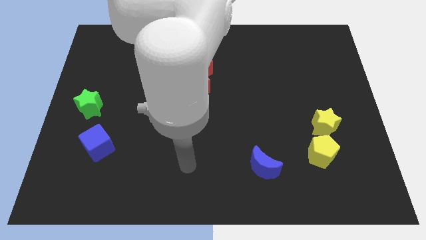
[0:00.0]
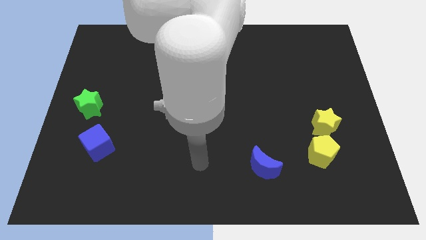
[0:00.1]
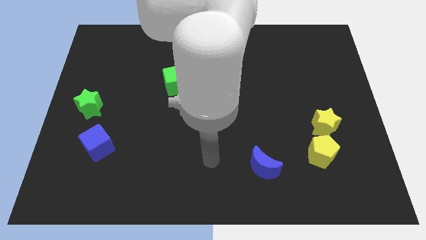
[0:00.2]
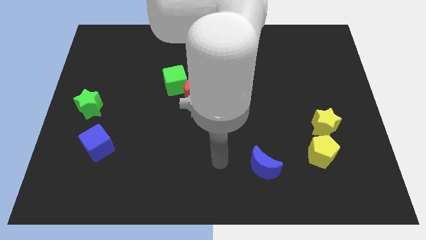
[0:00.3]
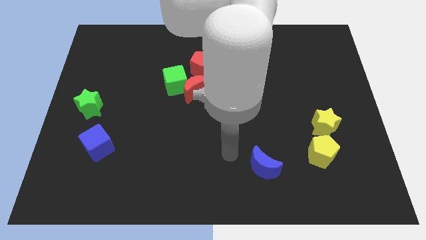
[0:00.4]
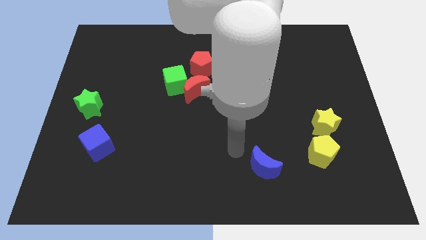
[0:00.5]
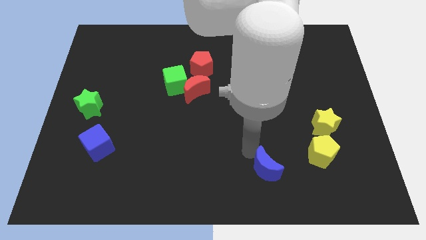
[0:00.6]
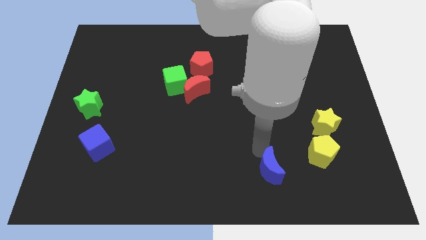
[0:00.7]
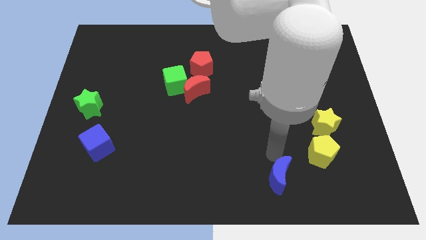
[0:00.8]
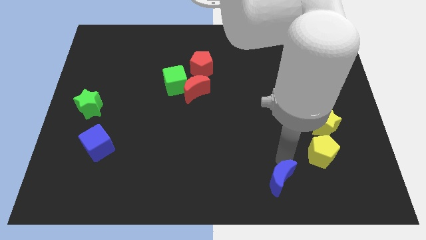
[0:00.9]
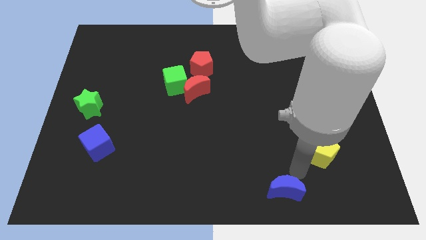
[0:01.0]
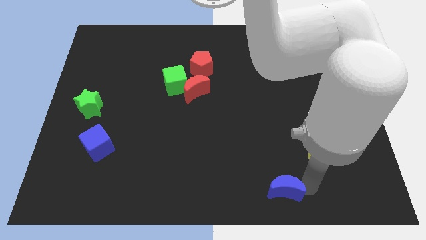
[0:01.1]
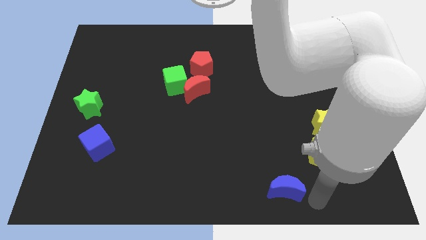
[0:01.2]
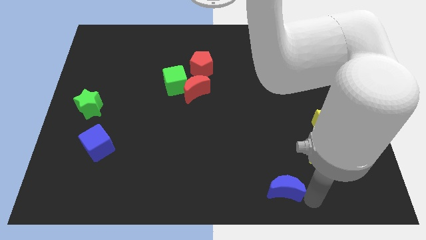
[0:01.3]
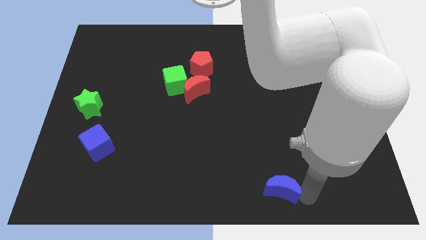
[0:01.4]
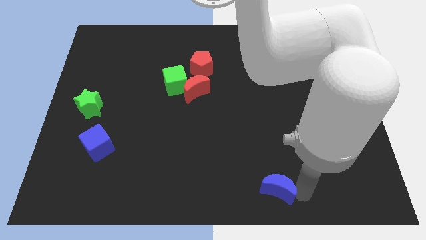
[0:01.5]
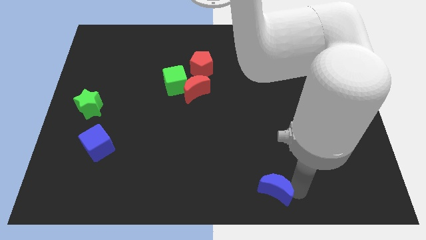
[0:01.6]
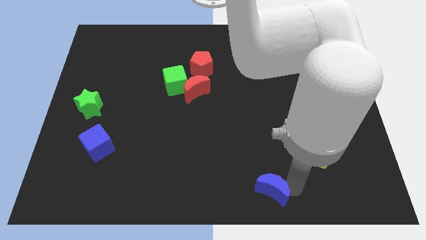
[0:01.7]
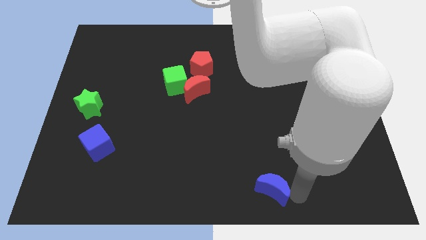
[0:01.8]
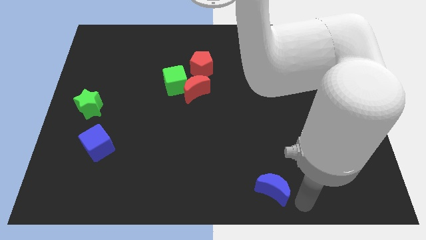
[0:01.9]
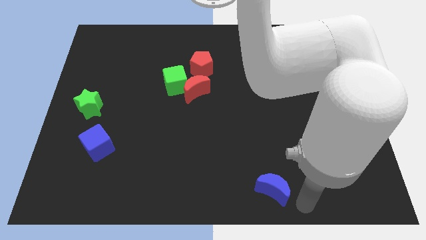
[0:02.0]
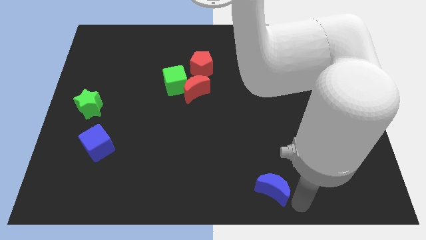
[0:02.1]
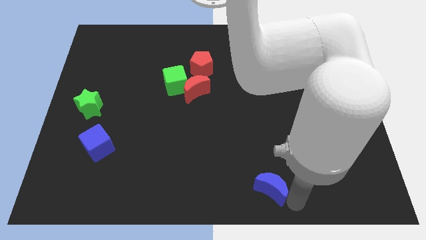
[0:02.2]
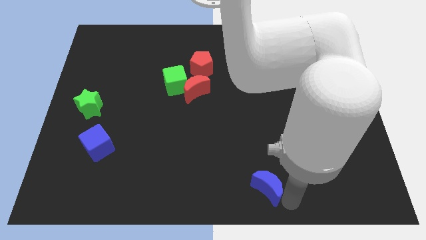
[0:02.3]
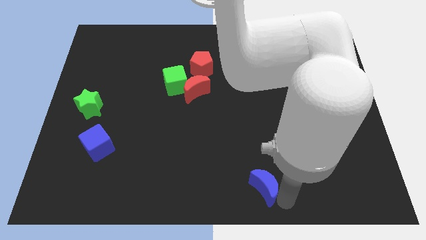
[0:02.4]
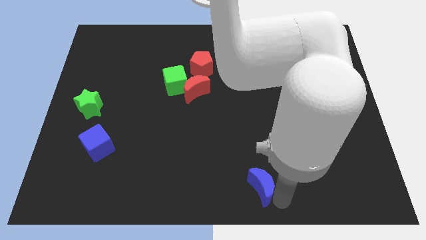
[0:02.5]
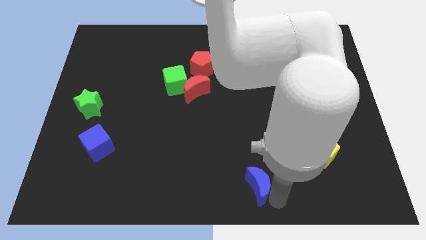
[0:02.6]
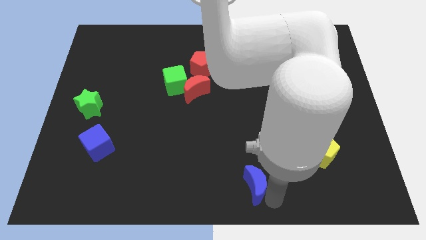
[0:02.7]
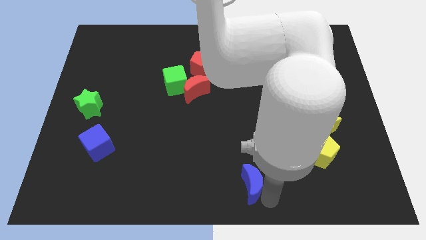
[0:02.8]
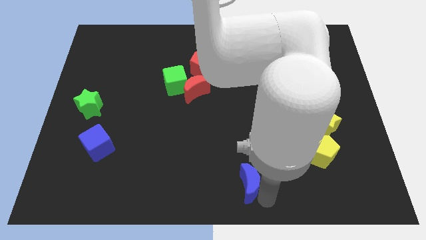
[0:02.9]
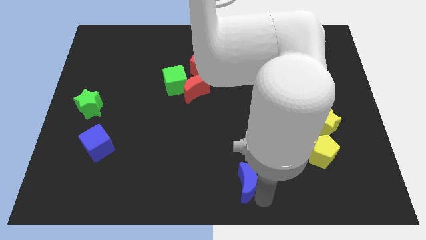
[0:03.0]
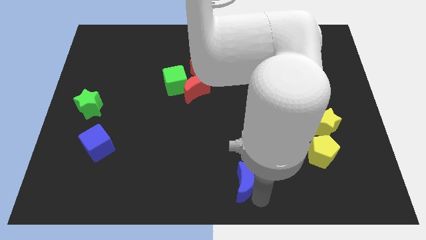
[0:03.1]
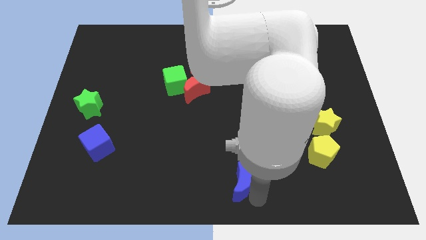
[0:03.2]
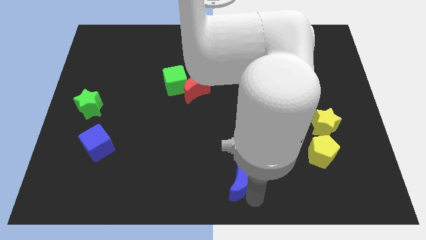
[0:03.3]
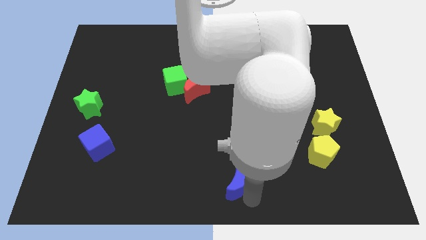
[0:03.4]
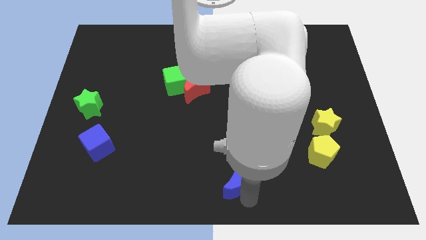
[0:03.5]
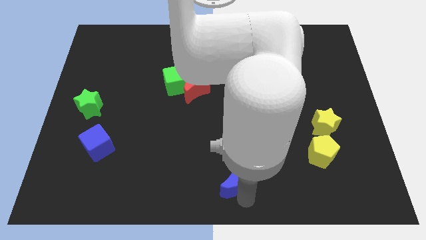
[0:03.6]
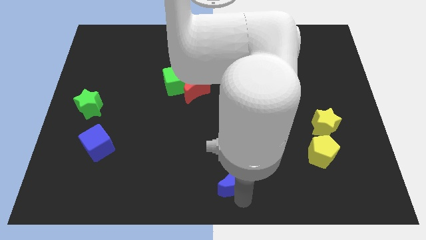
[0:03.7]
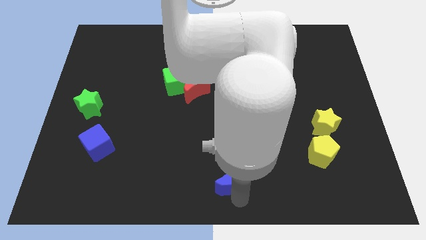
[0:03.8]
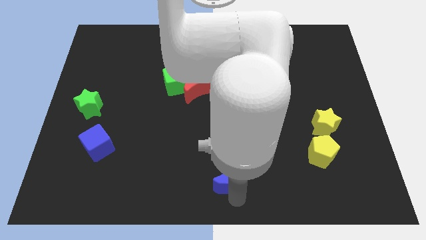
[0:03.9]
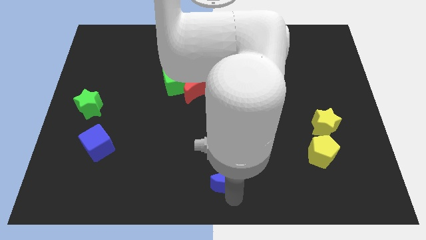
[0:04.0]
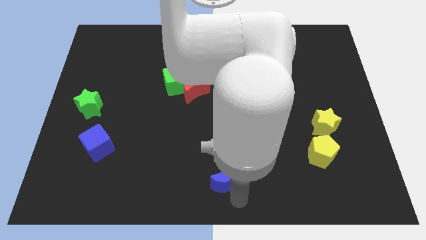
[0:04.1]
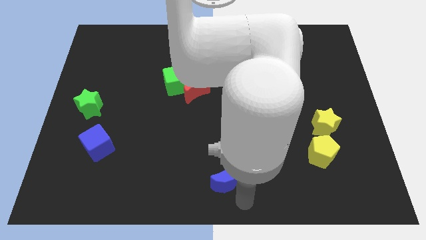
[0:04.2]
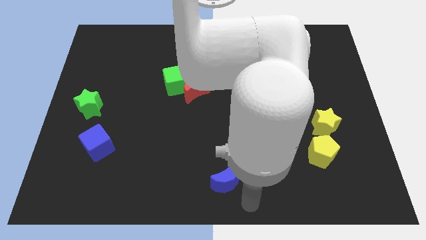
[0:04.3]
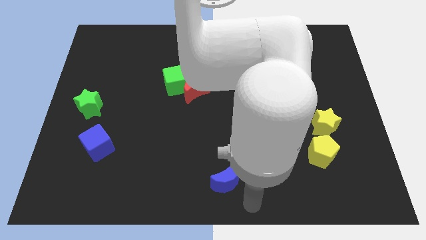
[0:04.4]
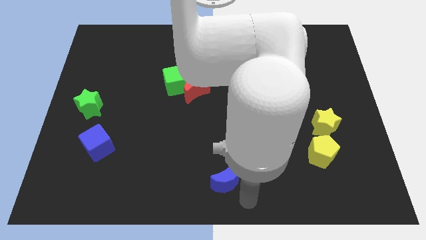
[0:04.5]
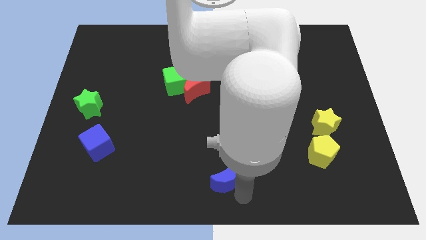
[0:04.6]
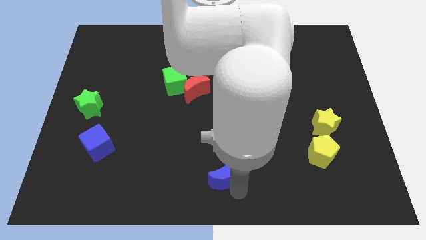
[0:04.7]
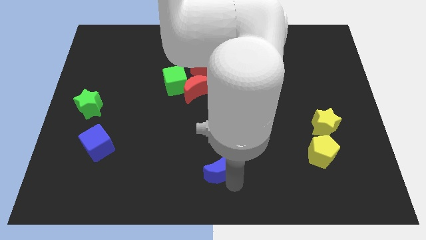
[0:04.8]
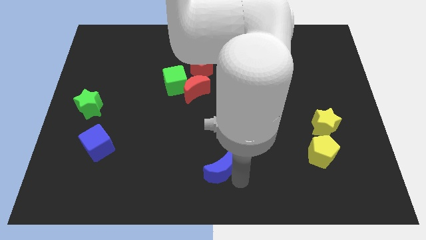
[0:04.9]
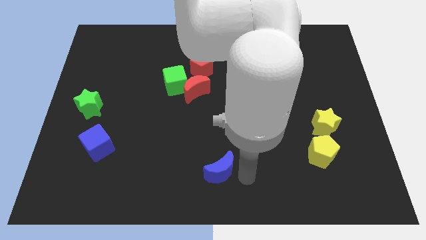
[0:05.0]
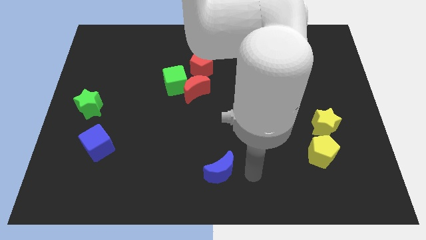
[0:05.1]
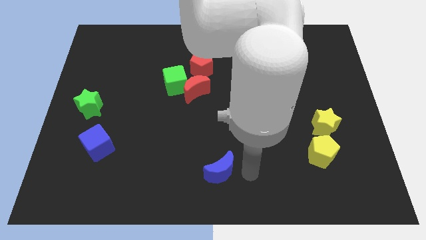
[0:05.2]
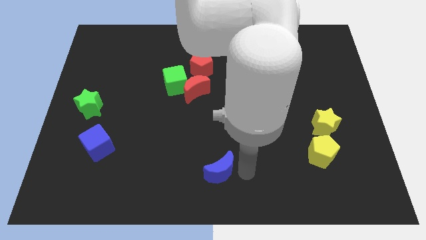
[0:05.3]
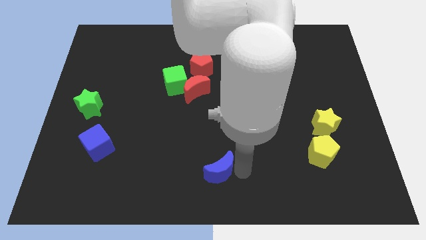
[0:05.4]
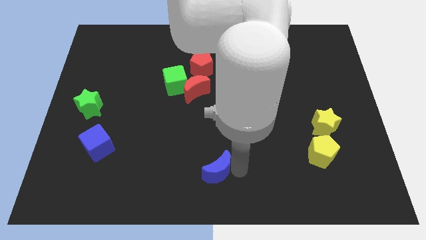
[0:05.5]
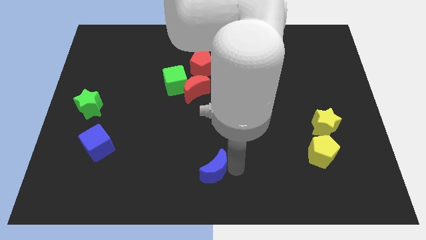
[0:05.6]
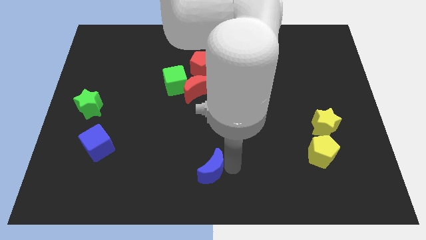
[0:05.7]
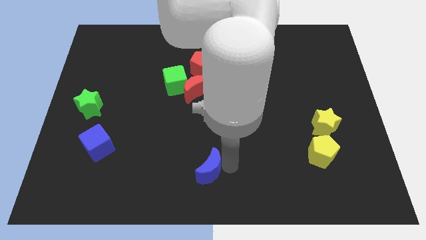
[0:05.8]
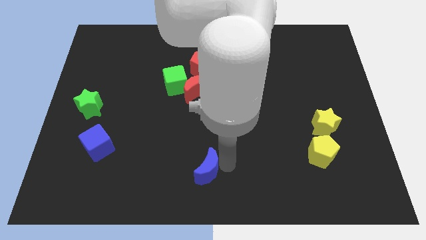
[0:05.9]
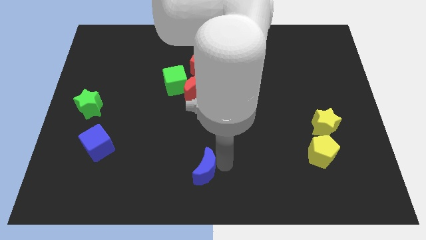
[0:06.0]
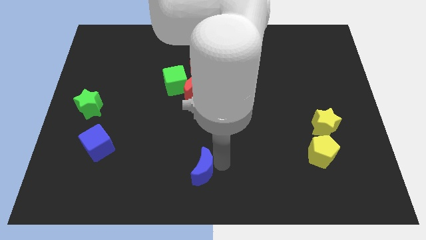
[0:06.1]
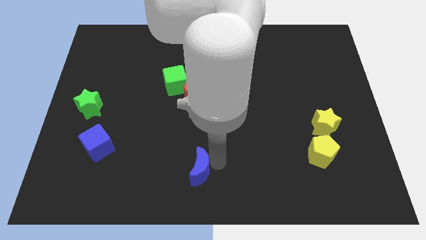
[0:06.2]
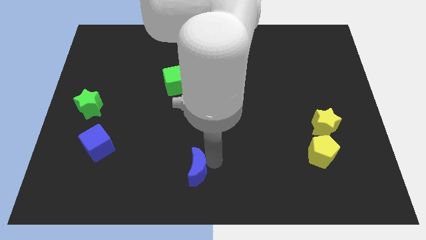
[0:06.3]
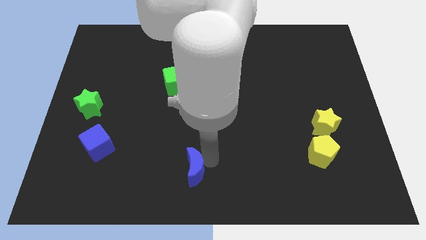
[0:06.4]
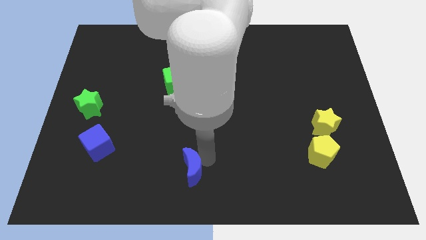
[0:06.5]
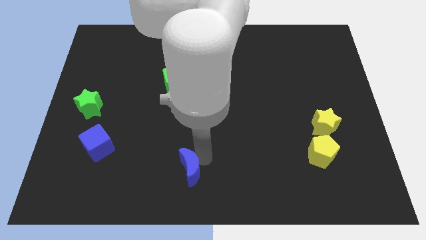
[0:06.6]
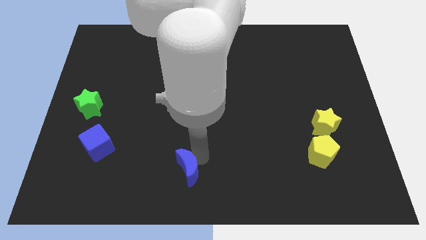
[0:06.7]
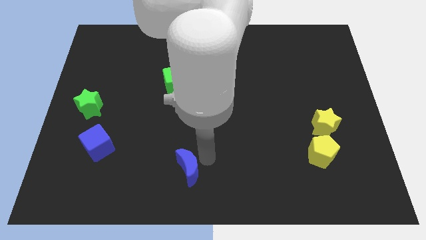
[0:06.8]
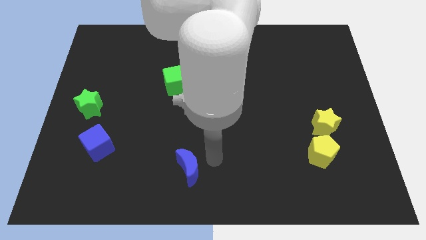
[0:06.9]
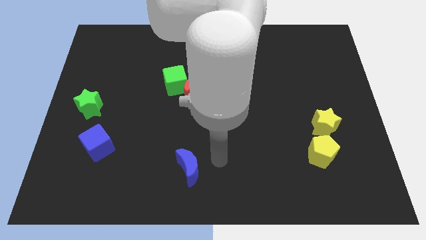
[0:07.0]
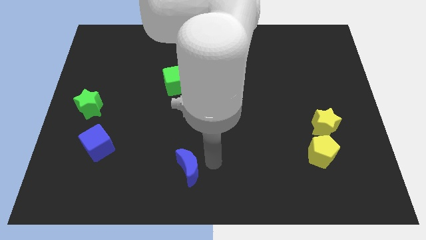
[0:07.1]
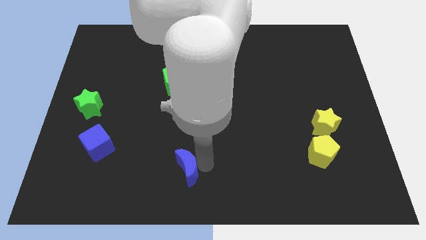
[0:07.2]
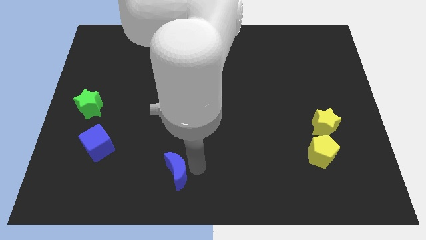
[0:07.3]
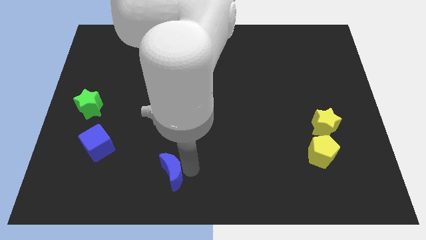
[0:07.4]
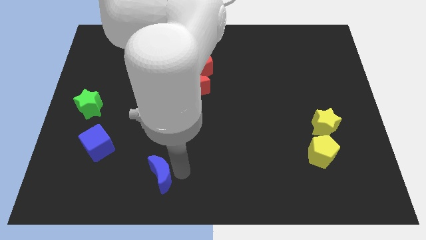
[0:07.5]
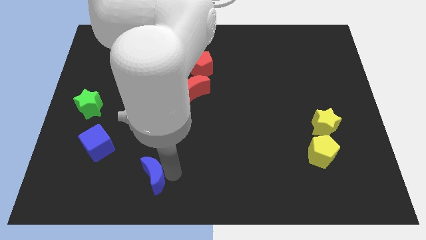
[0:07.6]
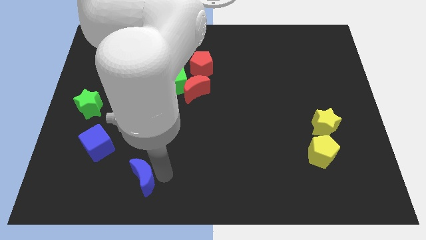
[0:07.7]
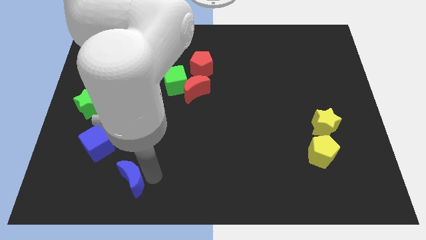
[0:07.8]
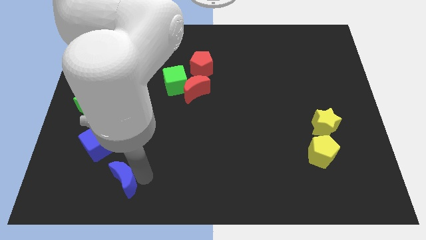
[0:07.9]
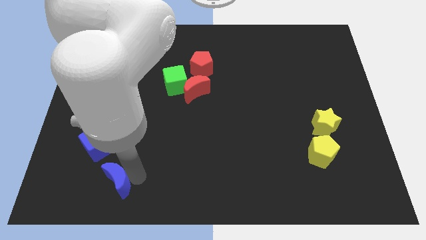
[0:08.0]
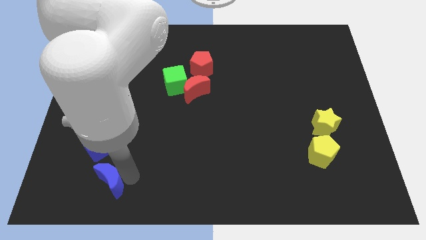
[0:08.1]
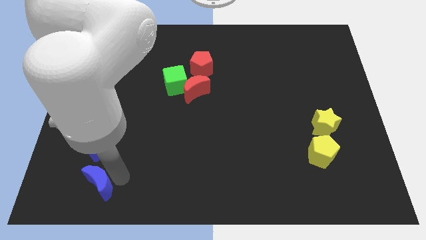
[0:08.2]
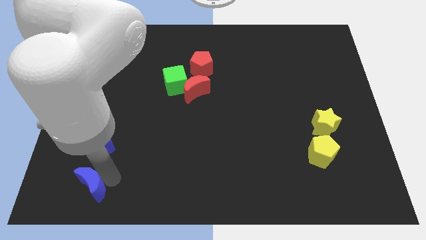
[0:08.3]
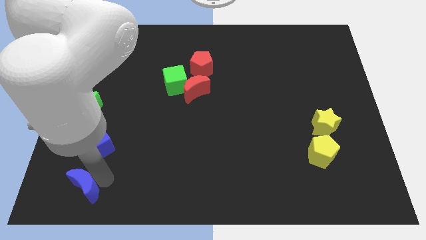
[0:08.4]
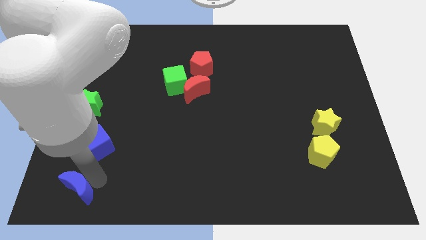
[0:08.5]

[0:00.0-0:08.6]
slide the blue moon to the lower left corner
